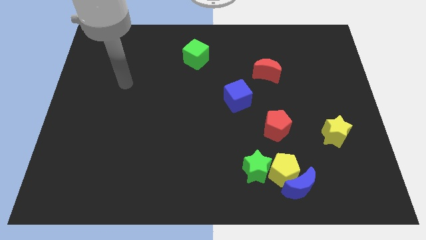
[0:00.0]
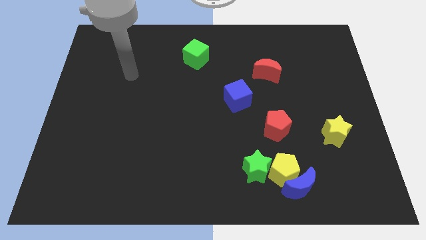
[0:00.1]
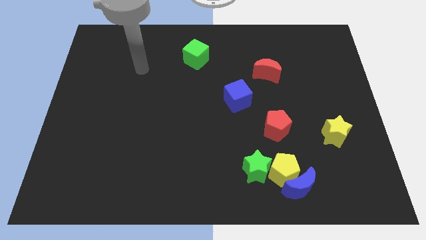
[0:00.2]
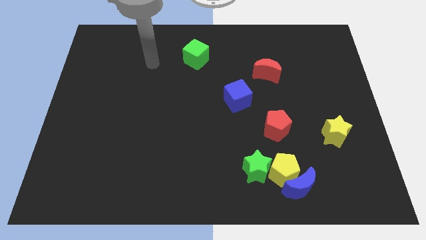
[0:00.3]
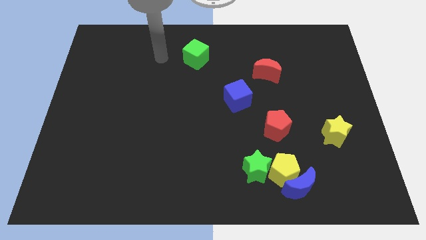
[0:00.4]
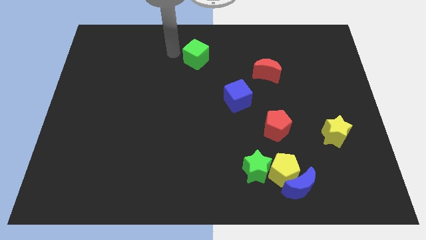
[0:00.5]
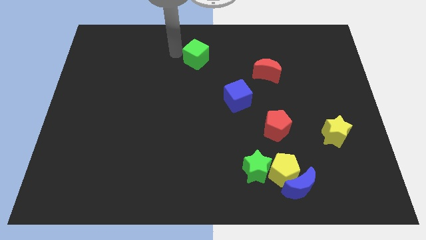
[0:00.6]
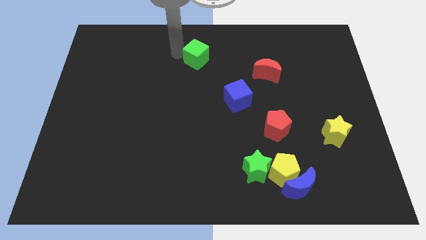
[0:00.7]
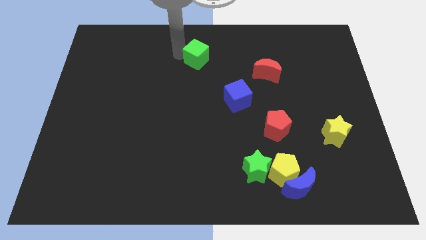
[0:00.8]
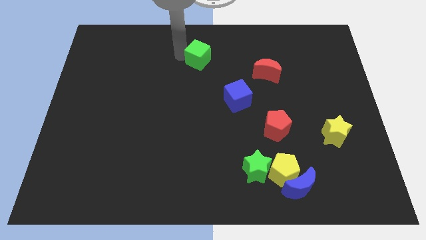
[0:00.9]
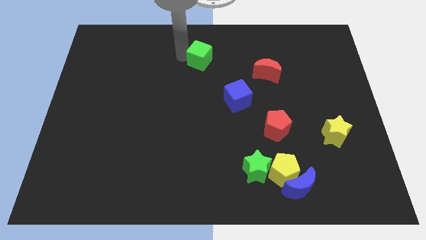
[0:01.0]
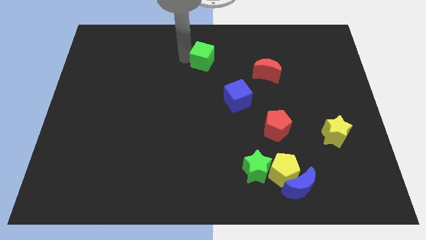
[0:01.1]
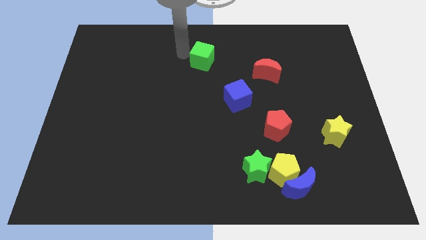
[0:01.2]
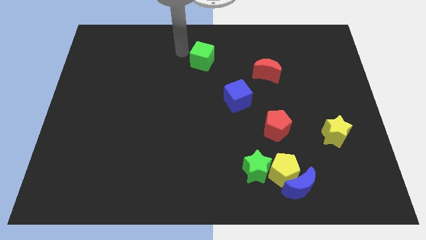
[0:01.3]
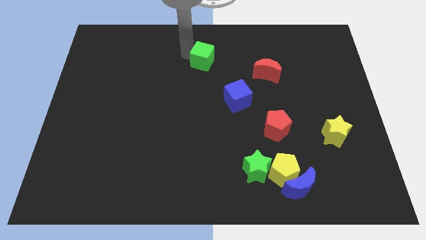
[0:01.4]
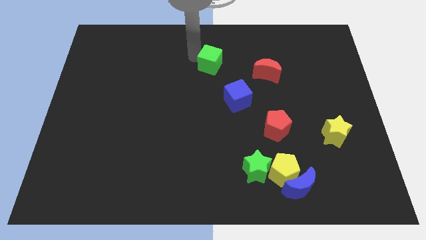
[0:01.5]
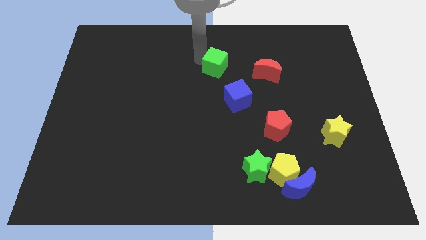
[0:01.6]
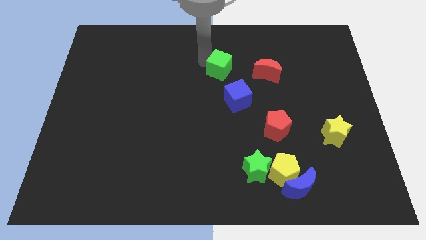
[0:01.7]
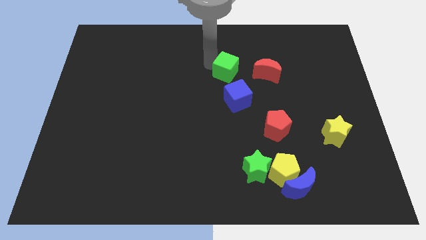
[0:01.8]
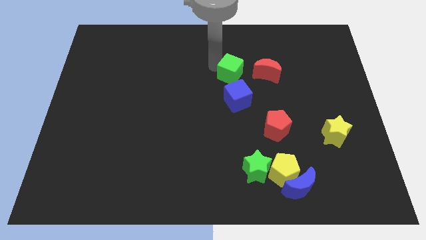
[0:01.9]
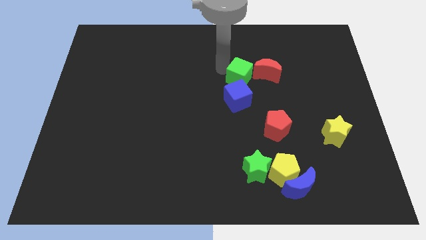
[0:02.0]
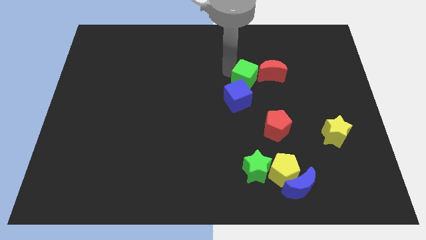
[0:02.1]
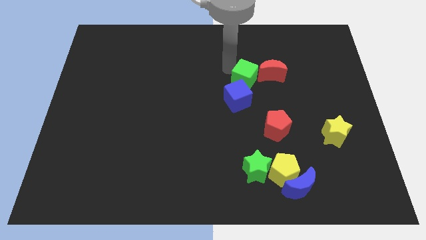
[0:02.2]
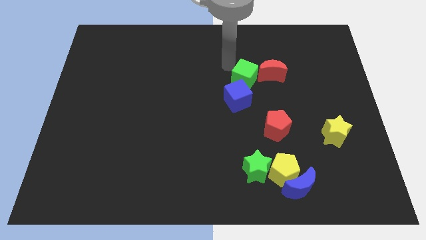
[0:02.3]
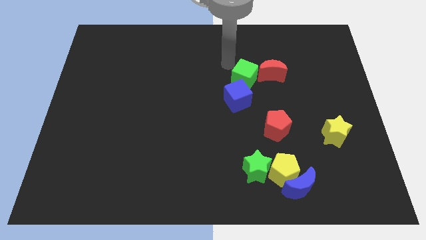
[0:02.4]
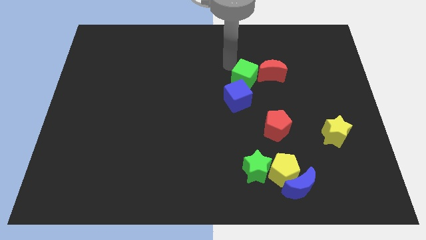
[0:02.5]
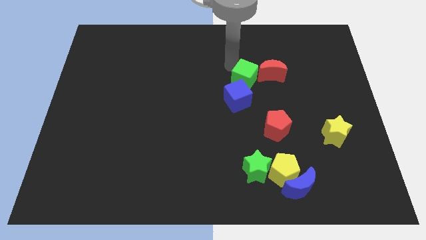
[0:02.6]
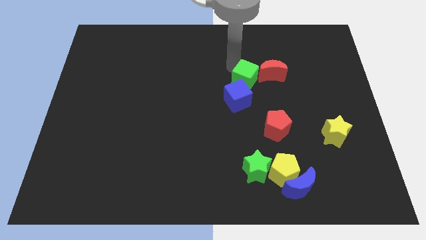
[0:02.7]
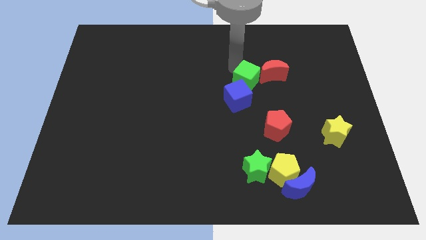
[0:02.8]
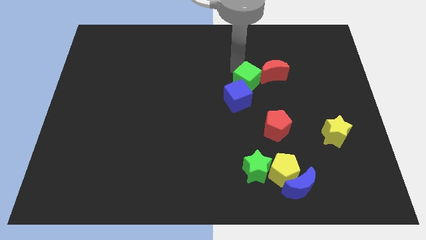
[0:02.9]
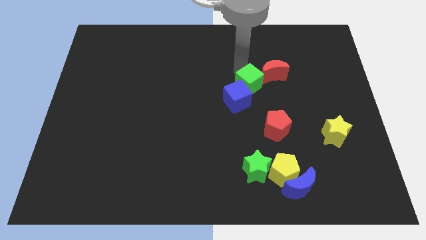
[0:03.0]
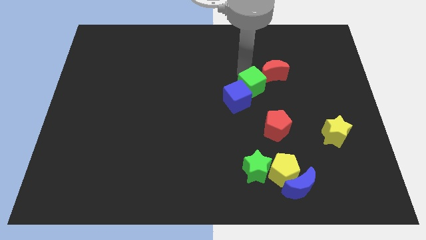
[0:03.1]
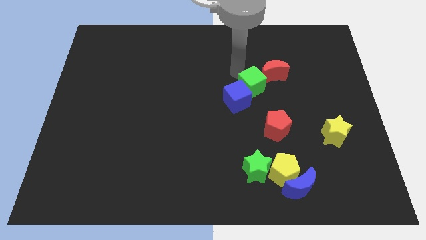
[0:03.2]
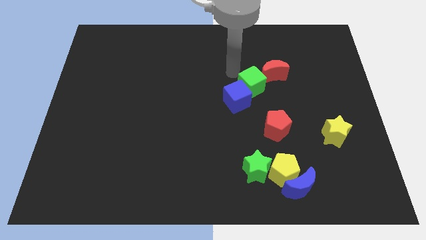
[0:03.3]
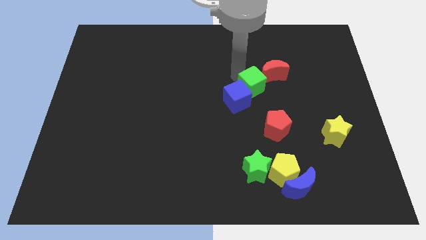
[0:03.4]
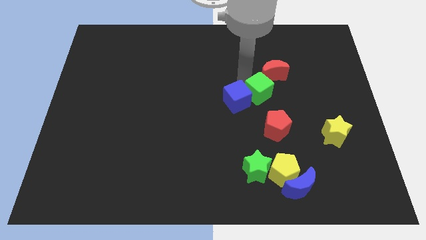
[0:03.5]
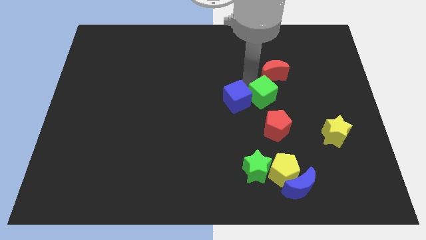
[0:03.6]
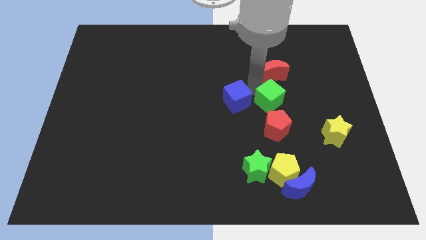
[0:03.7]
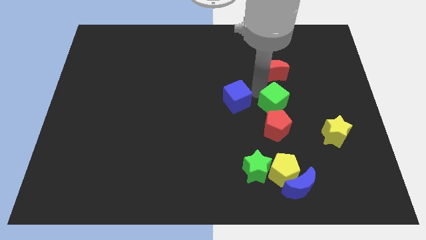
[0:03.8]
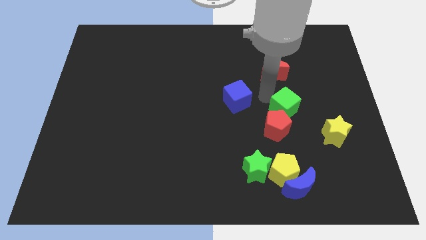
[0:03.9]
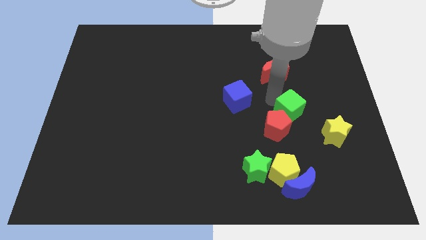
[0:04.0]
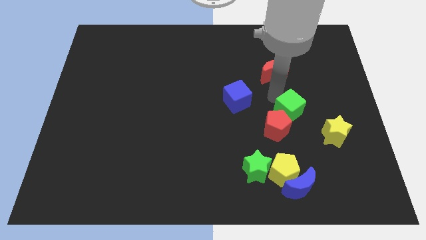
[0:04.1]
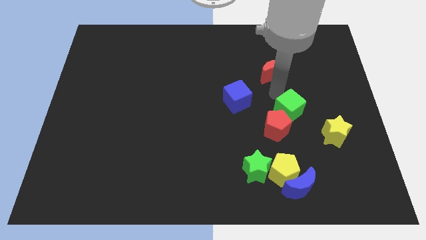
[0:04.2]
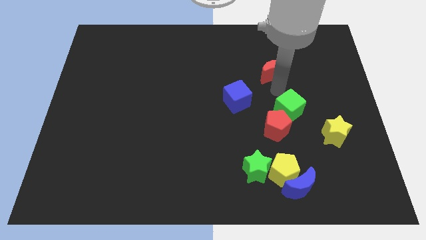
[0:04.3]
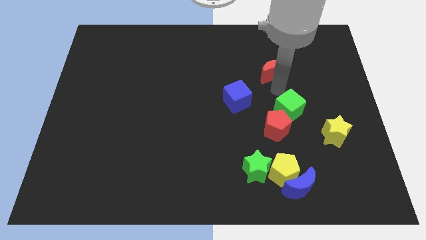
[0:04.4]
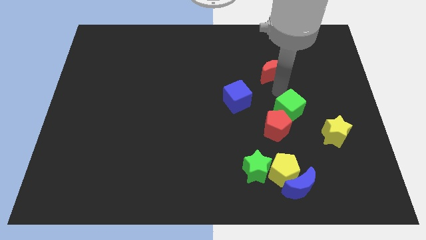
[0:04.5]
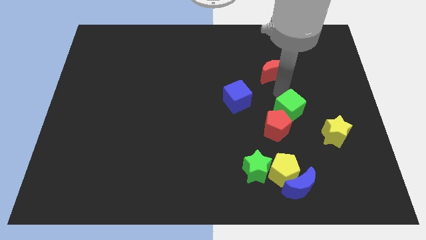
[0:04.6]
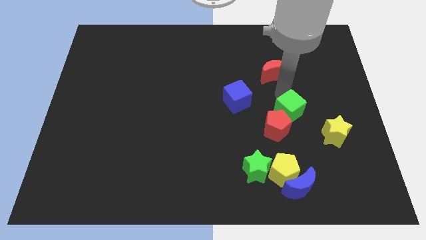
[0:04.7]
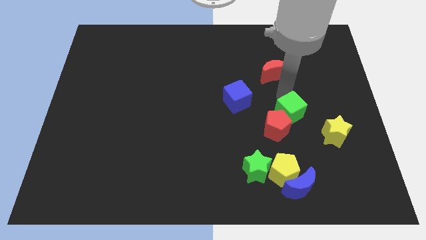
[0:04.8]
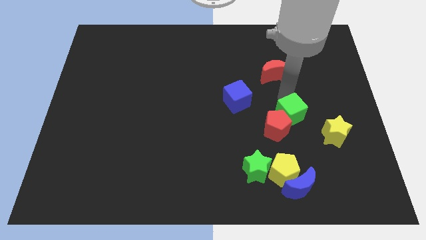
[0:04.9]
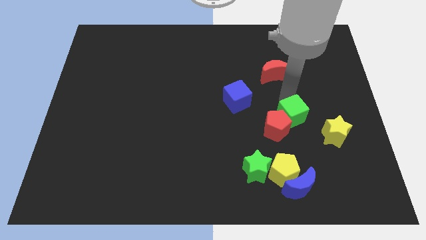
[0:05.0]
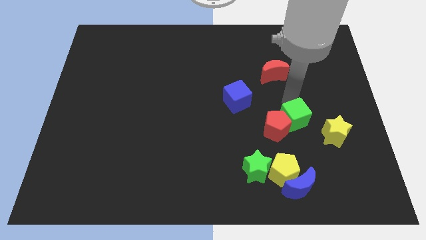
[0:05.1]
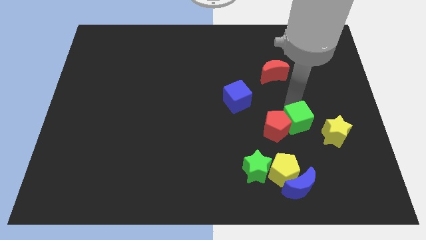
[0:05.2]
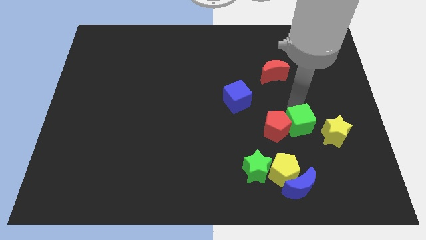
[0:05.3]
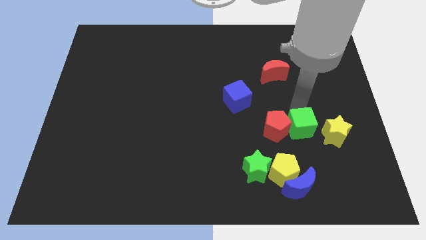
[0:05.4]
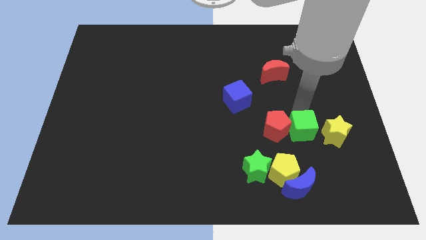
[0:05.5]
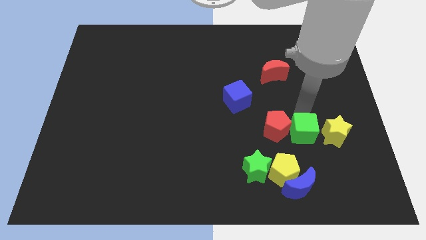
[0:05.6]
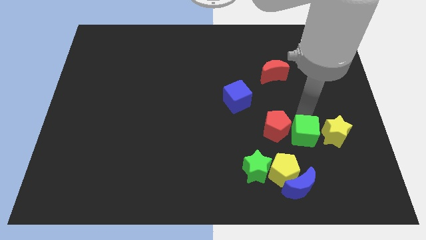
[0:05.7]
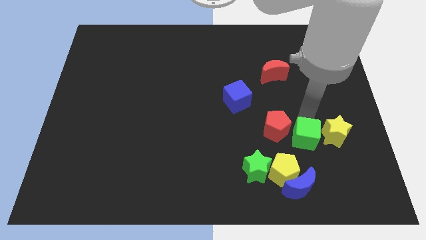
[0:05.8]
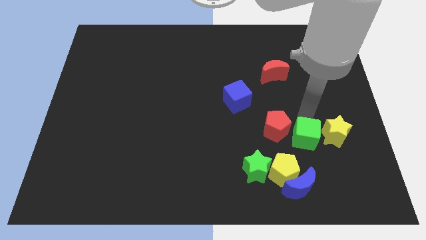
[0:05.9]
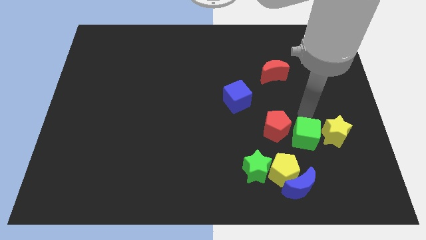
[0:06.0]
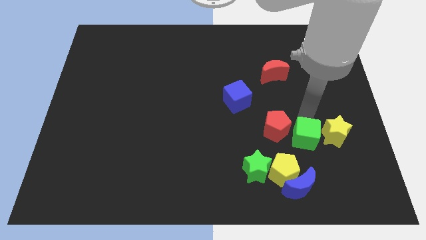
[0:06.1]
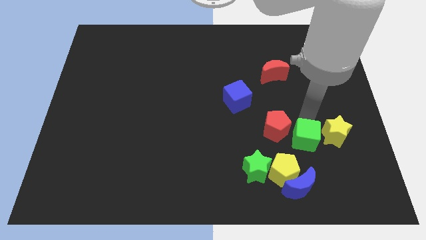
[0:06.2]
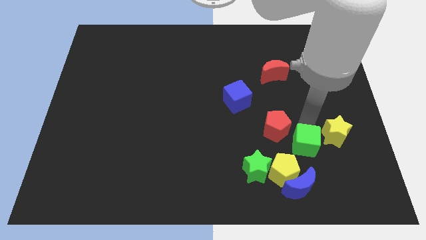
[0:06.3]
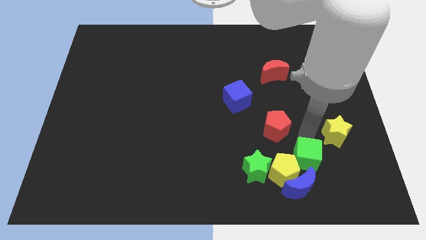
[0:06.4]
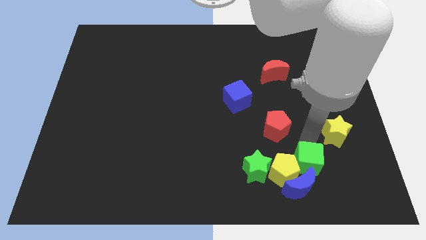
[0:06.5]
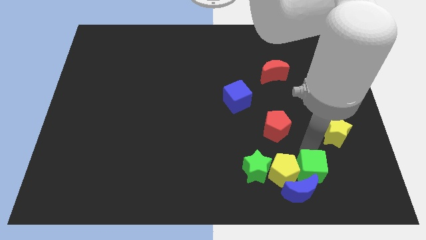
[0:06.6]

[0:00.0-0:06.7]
push the green cube close to the blue moon
